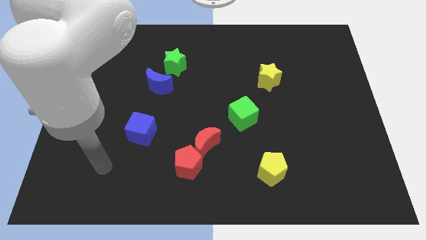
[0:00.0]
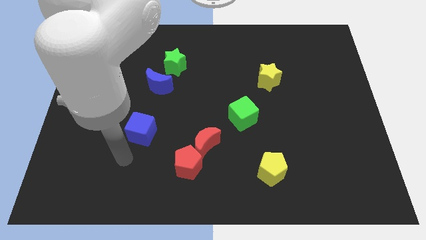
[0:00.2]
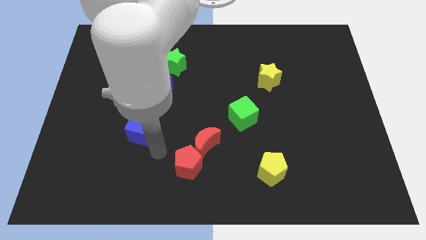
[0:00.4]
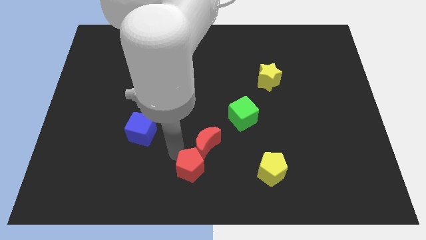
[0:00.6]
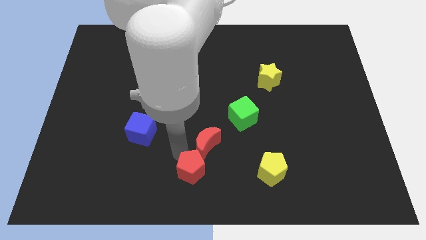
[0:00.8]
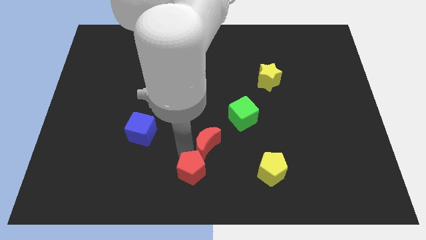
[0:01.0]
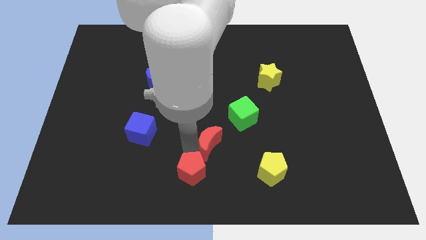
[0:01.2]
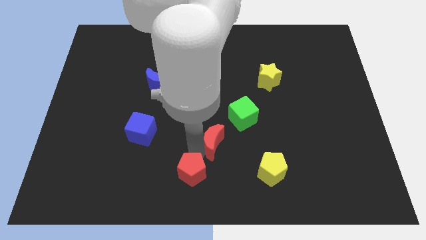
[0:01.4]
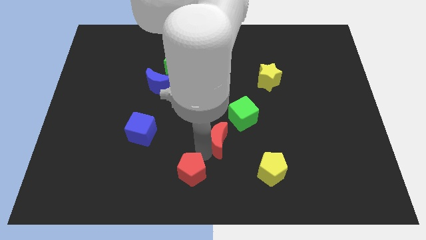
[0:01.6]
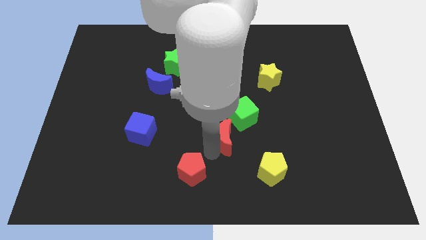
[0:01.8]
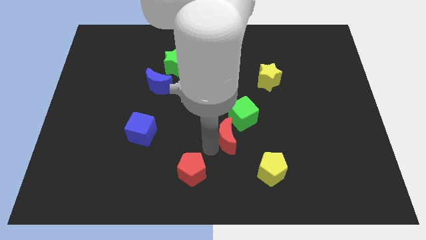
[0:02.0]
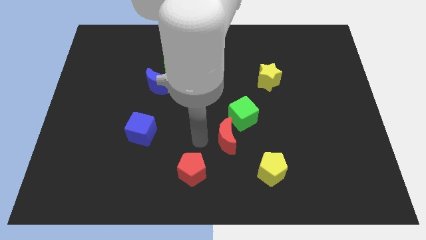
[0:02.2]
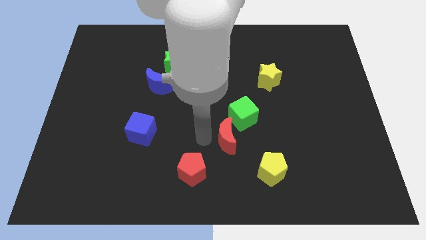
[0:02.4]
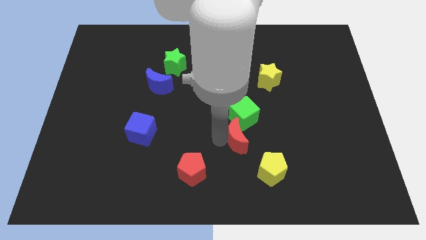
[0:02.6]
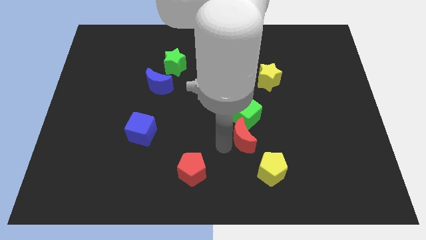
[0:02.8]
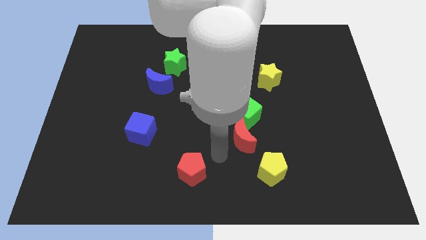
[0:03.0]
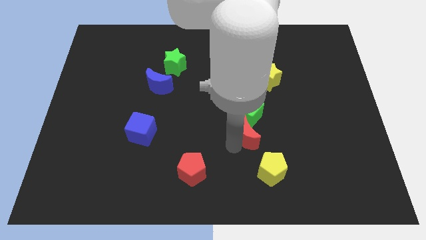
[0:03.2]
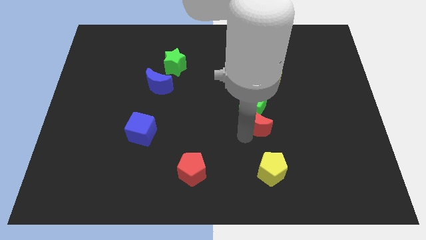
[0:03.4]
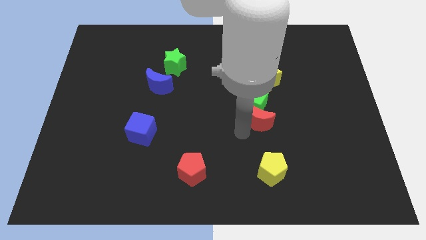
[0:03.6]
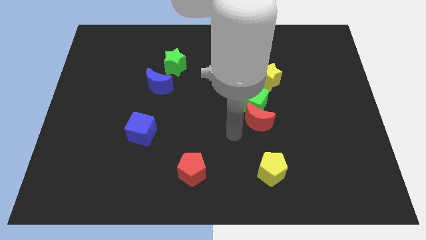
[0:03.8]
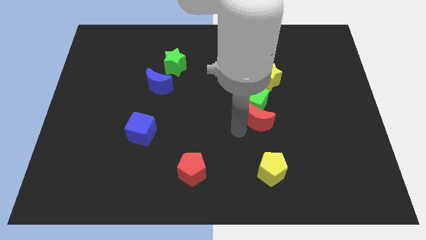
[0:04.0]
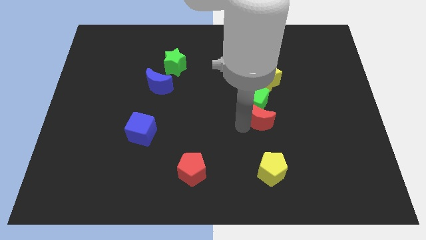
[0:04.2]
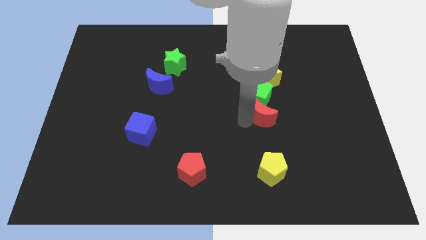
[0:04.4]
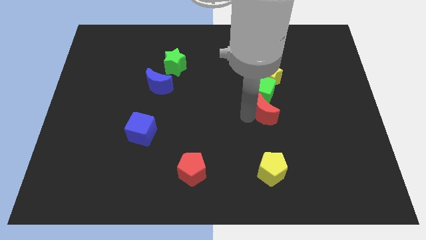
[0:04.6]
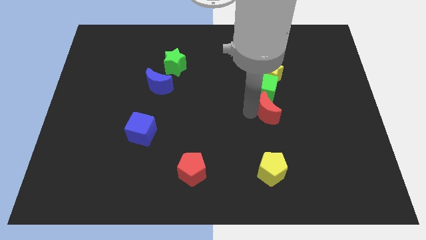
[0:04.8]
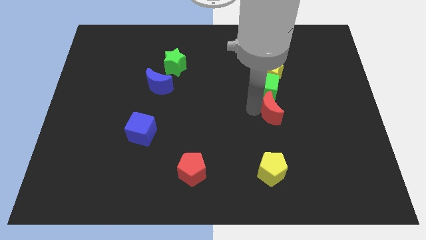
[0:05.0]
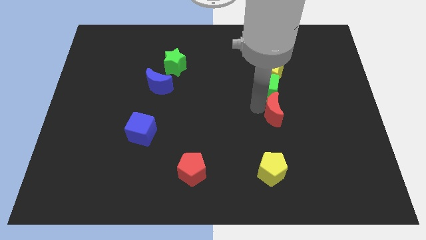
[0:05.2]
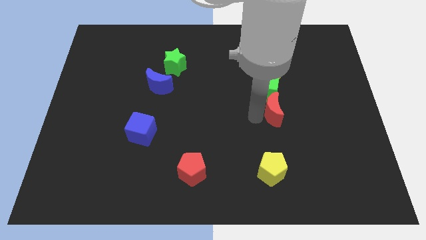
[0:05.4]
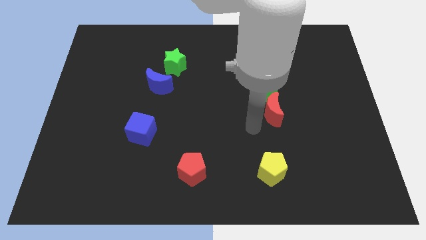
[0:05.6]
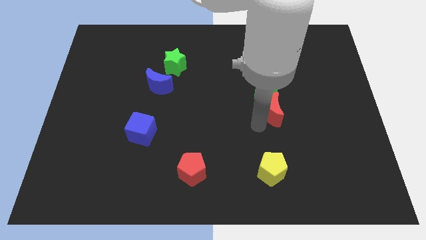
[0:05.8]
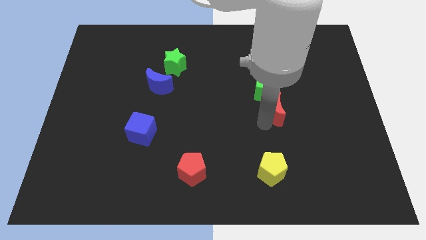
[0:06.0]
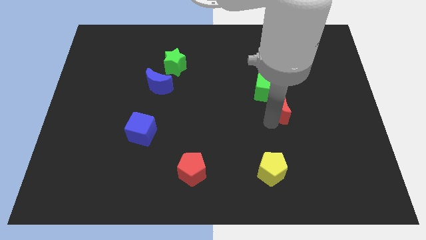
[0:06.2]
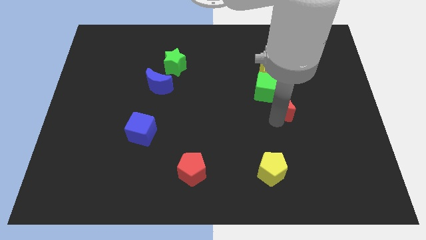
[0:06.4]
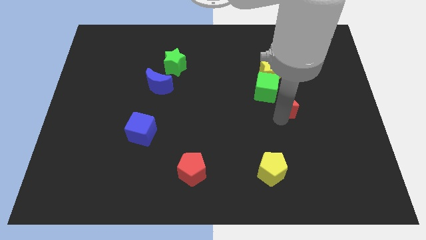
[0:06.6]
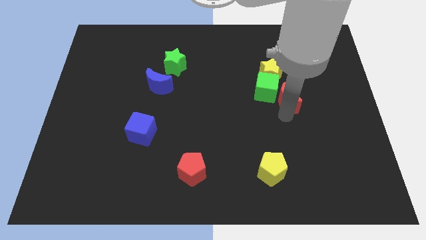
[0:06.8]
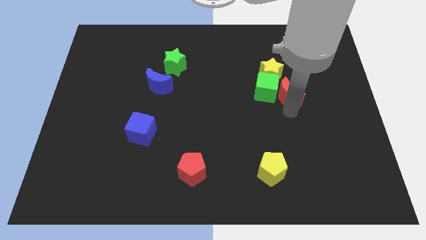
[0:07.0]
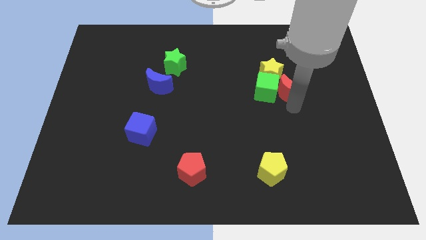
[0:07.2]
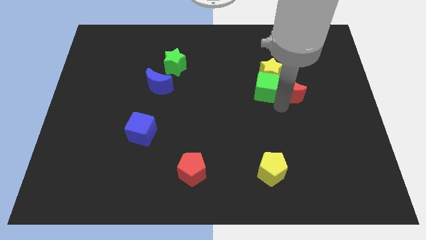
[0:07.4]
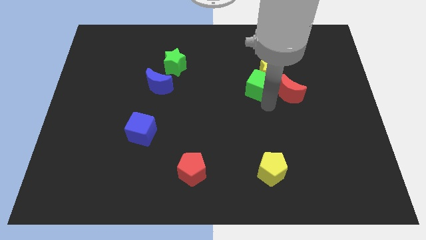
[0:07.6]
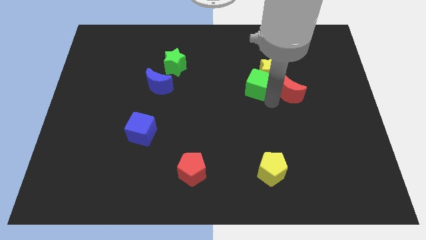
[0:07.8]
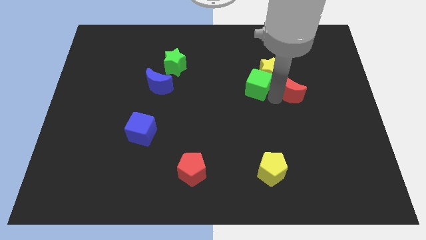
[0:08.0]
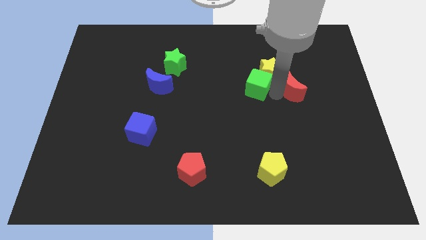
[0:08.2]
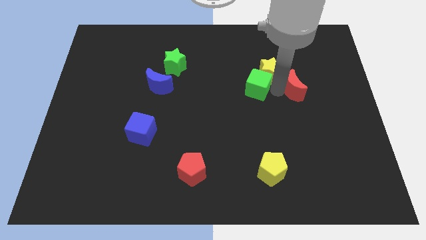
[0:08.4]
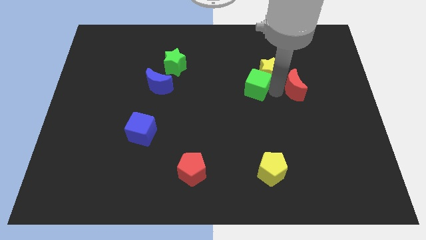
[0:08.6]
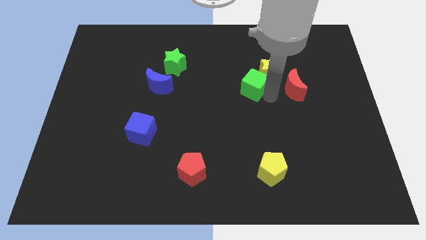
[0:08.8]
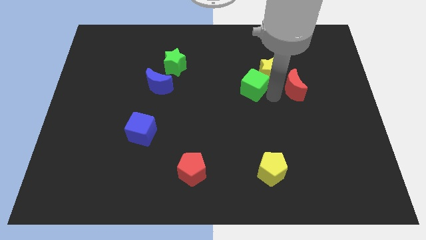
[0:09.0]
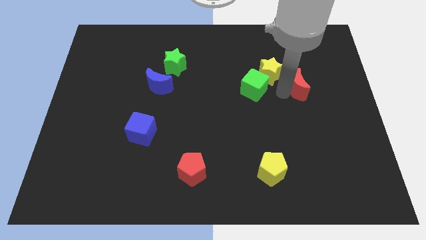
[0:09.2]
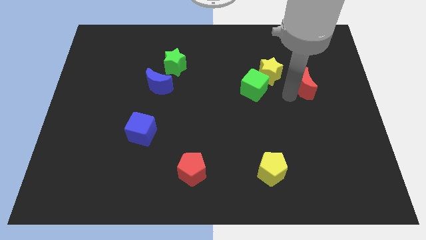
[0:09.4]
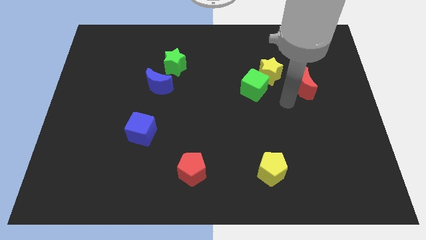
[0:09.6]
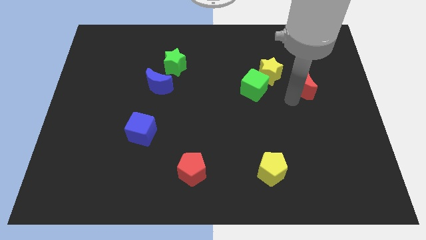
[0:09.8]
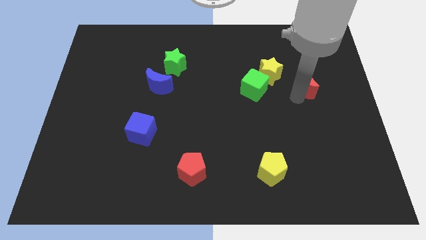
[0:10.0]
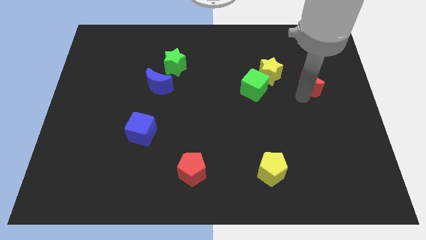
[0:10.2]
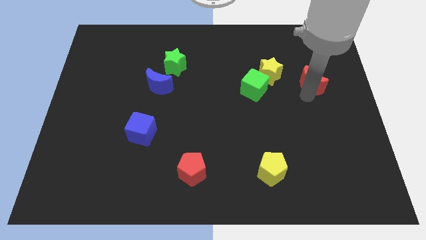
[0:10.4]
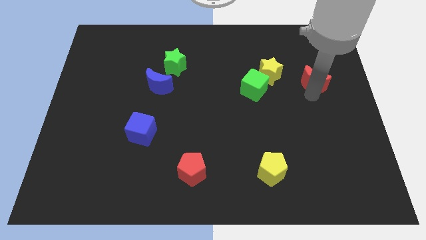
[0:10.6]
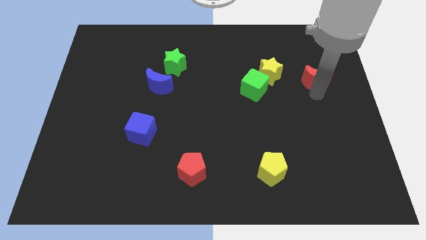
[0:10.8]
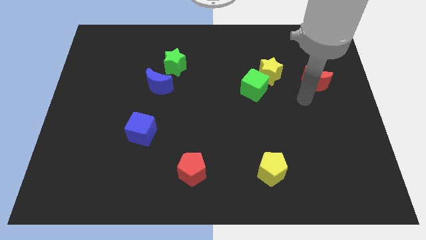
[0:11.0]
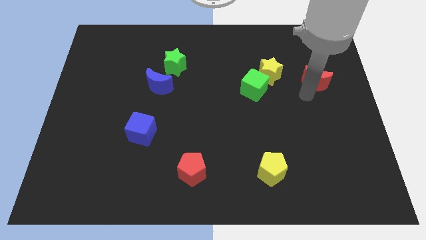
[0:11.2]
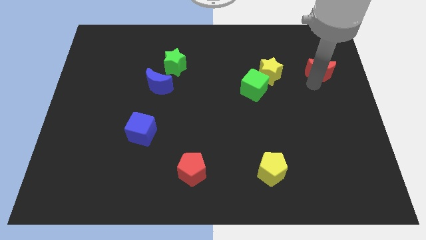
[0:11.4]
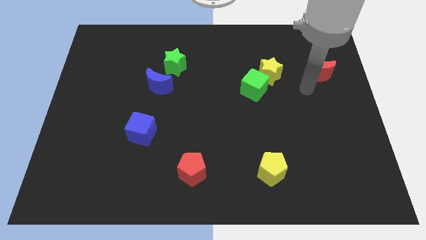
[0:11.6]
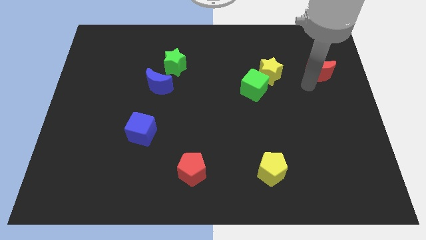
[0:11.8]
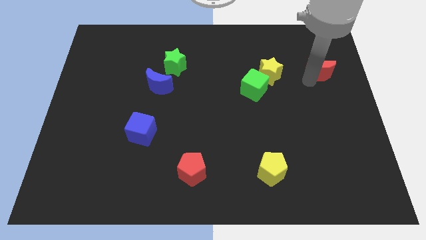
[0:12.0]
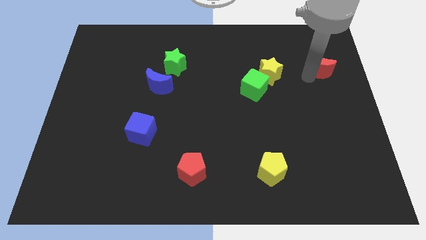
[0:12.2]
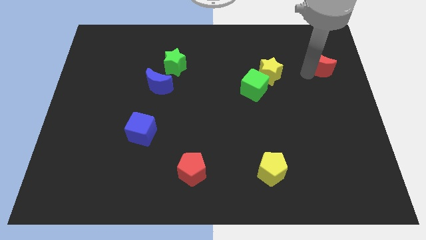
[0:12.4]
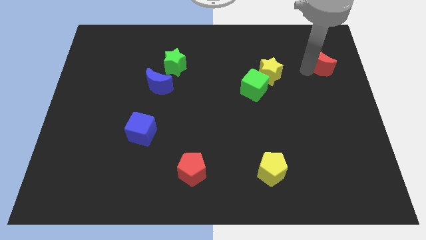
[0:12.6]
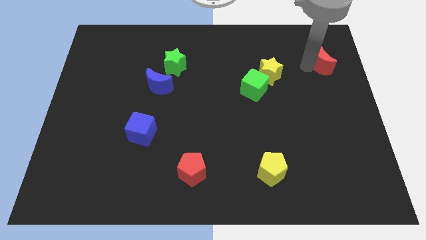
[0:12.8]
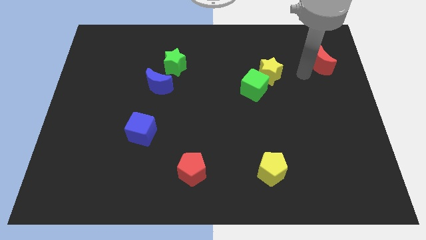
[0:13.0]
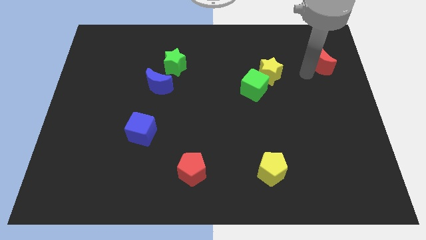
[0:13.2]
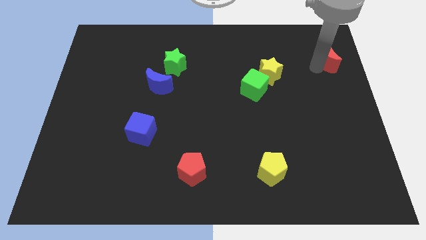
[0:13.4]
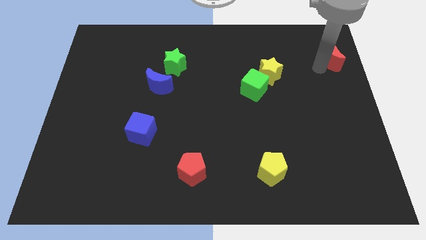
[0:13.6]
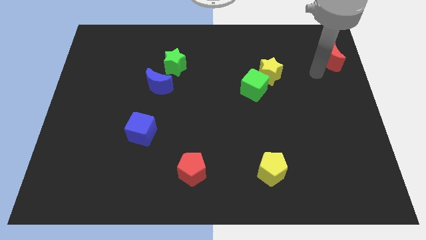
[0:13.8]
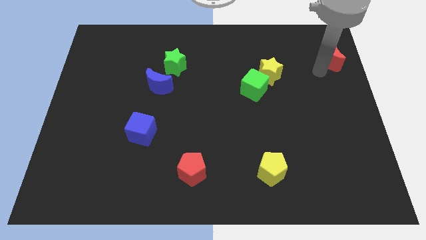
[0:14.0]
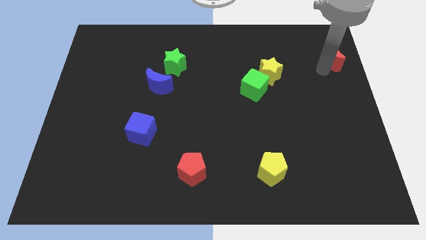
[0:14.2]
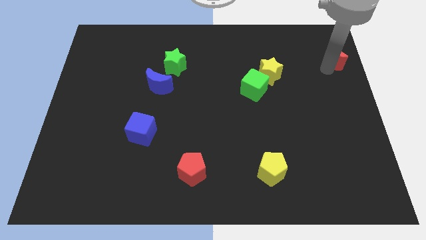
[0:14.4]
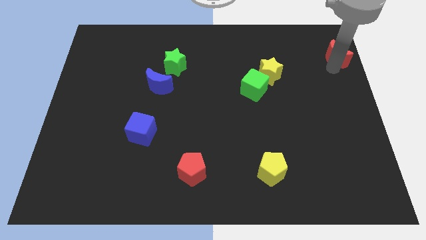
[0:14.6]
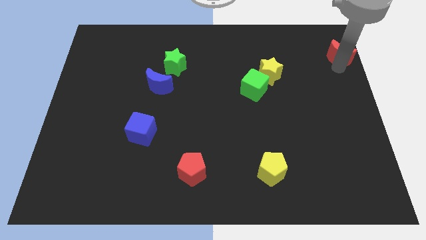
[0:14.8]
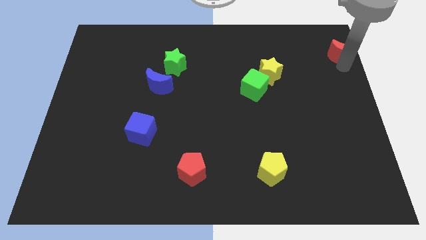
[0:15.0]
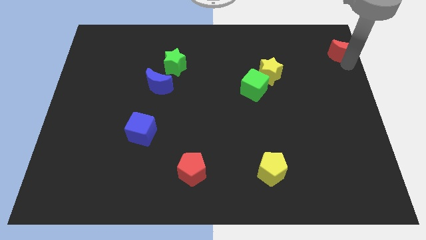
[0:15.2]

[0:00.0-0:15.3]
push the red moon to the top right corner

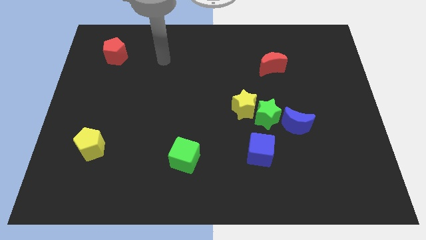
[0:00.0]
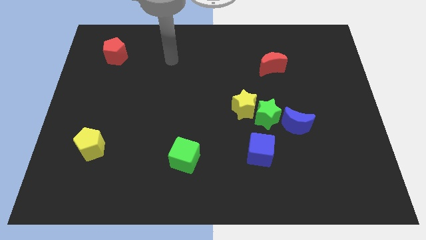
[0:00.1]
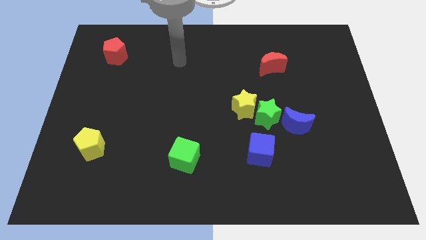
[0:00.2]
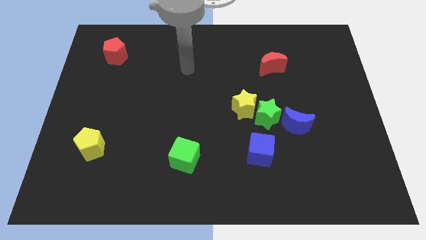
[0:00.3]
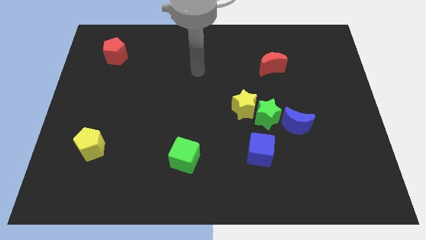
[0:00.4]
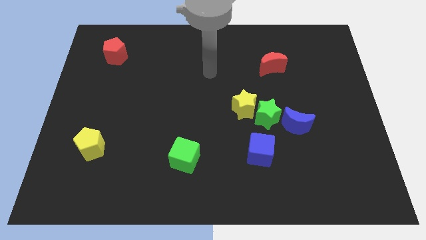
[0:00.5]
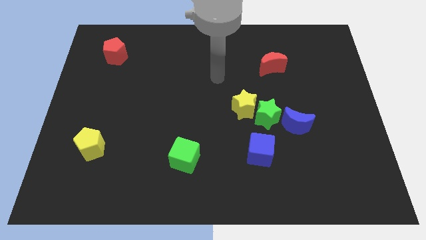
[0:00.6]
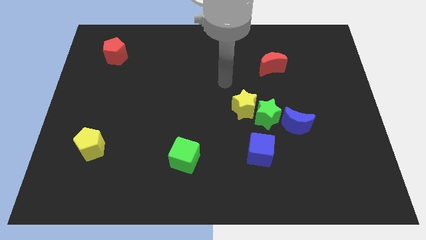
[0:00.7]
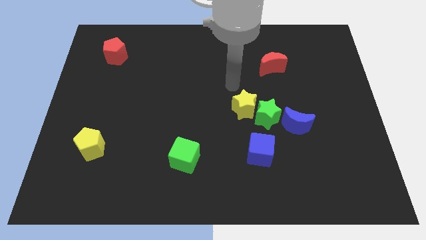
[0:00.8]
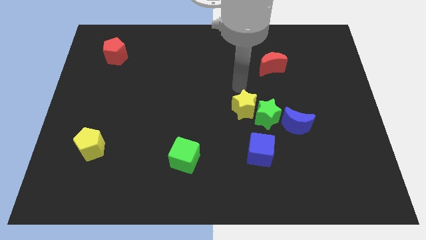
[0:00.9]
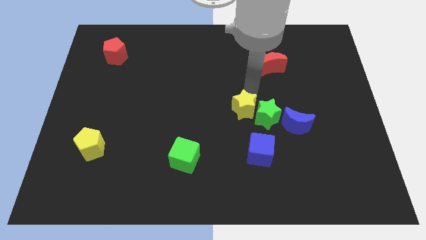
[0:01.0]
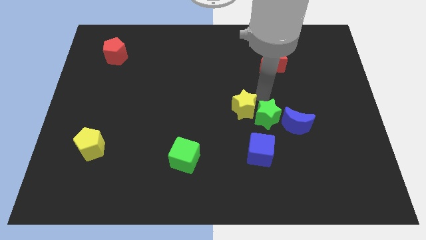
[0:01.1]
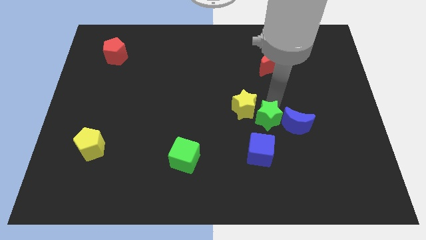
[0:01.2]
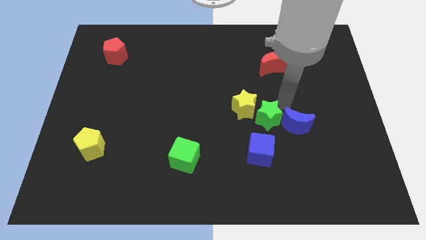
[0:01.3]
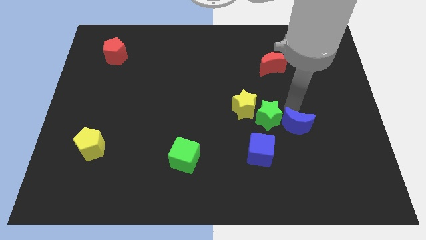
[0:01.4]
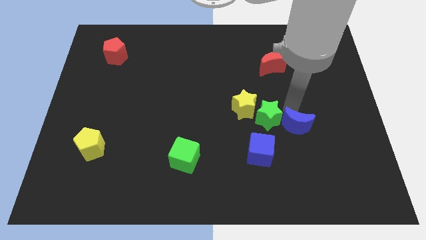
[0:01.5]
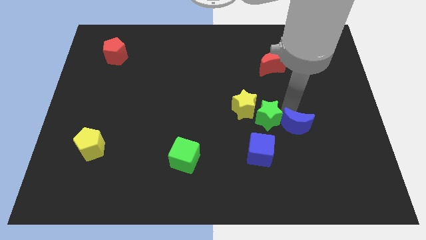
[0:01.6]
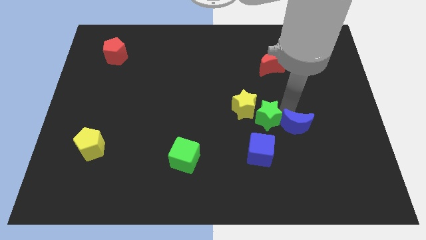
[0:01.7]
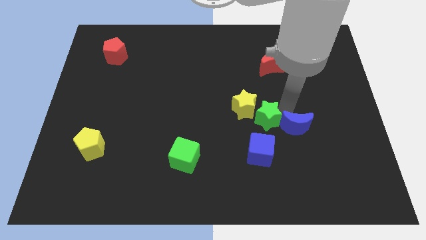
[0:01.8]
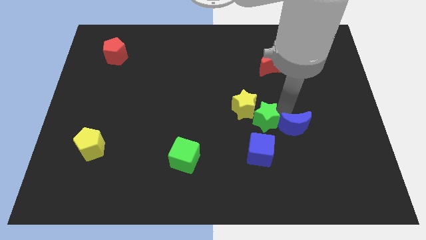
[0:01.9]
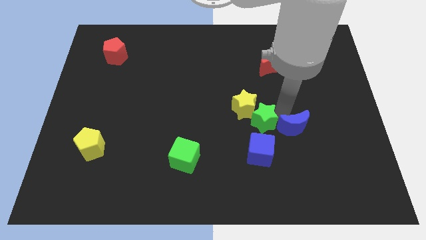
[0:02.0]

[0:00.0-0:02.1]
slide the green star to the center
